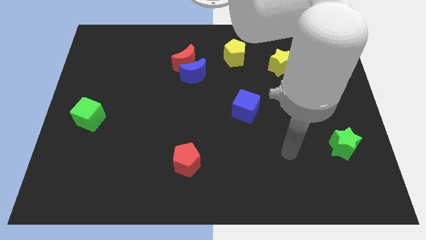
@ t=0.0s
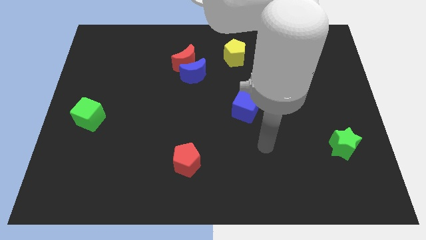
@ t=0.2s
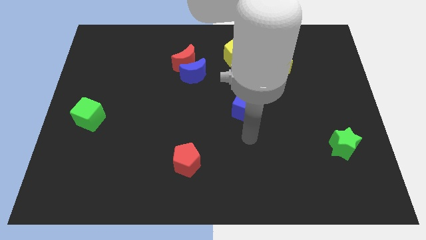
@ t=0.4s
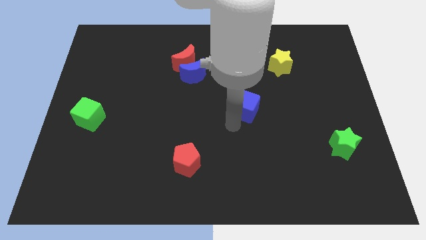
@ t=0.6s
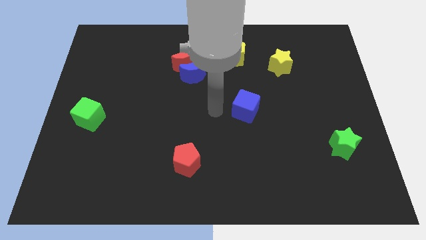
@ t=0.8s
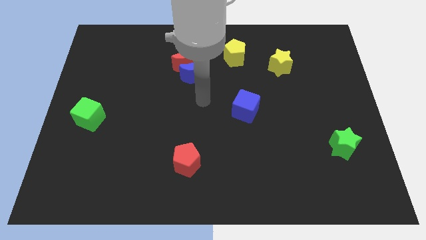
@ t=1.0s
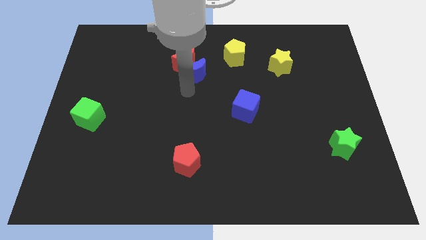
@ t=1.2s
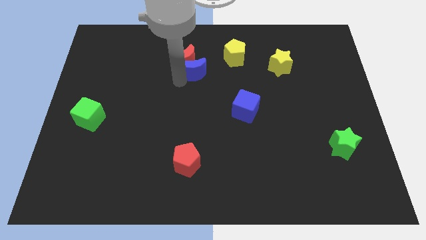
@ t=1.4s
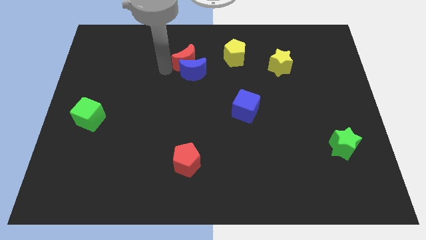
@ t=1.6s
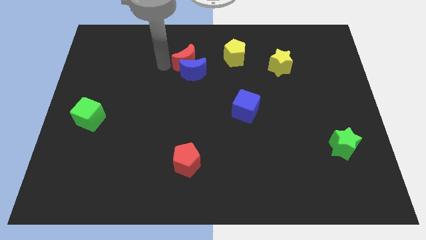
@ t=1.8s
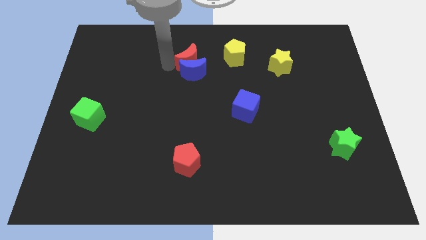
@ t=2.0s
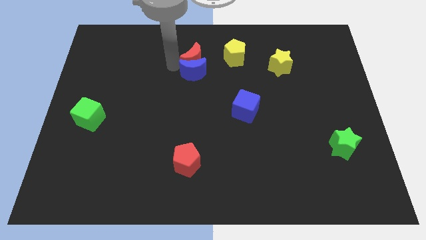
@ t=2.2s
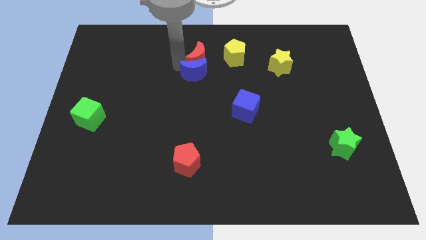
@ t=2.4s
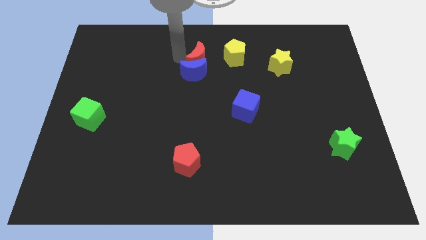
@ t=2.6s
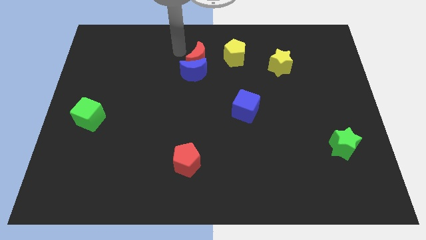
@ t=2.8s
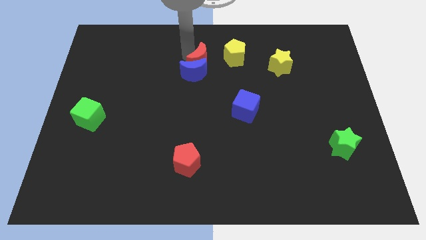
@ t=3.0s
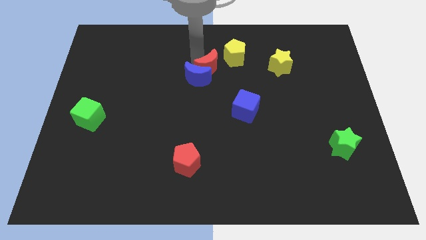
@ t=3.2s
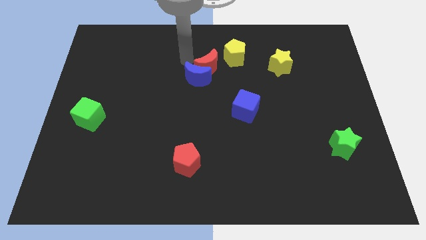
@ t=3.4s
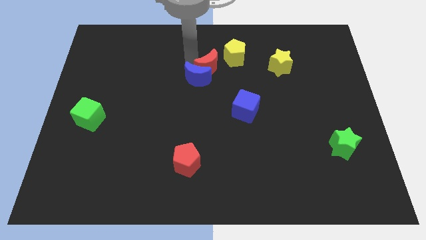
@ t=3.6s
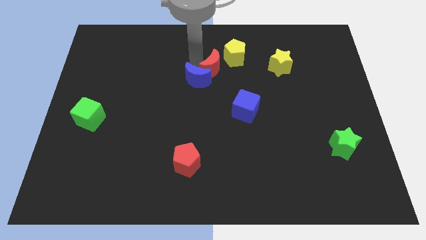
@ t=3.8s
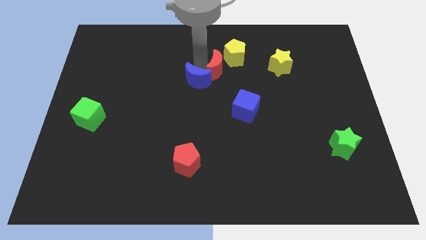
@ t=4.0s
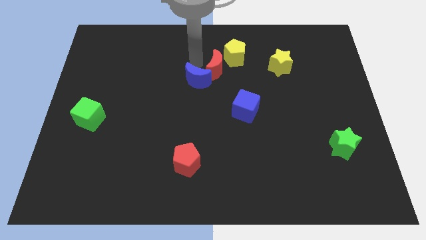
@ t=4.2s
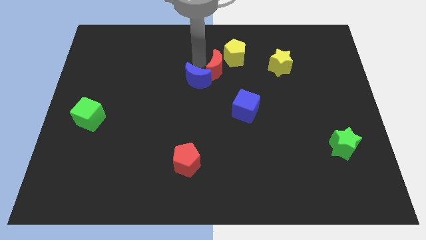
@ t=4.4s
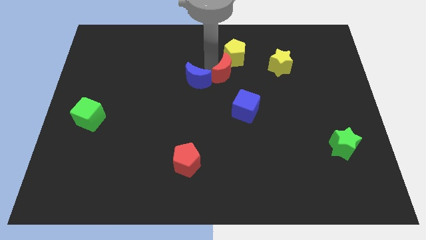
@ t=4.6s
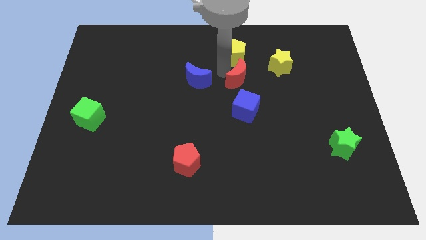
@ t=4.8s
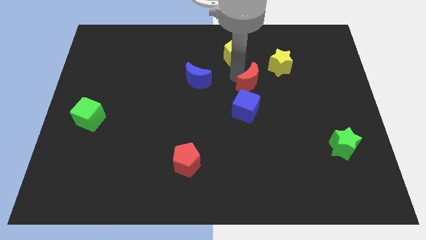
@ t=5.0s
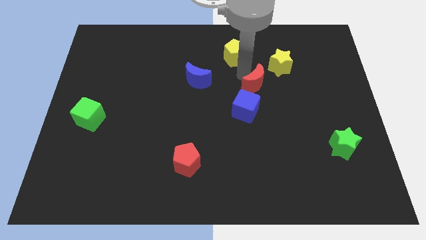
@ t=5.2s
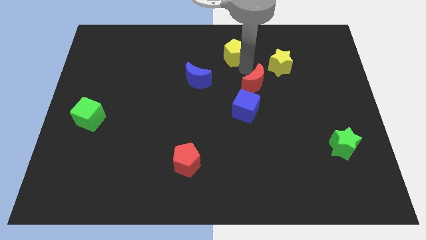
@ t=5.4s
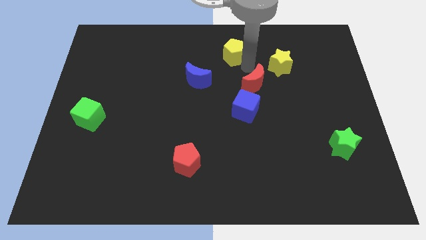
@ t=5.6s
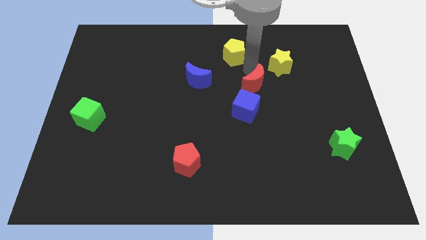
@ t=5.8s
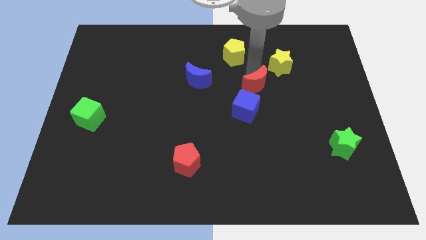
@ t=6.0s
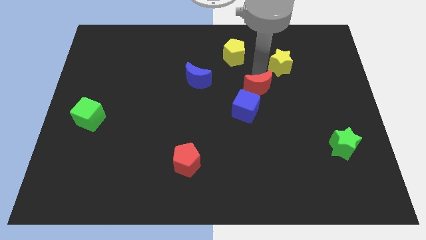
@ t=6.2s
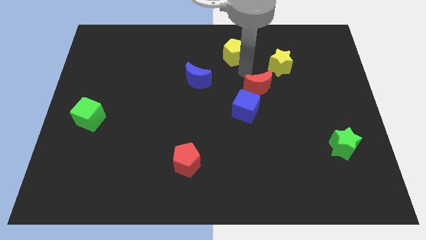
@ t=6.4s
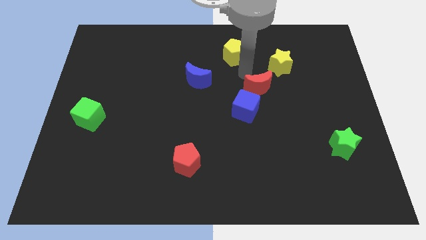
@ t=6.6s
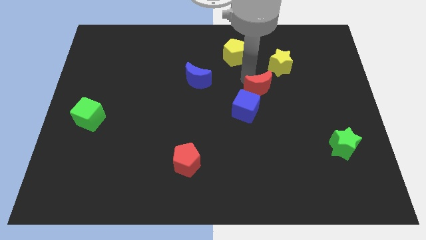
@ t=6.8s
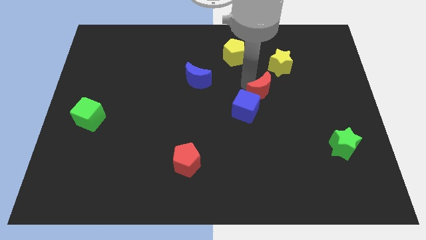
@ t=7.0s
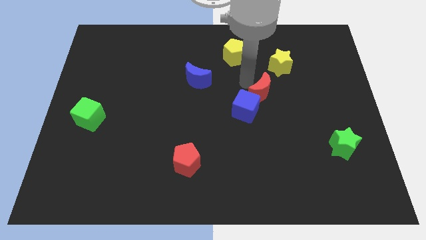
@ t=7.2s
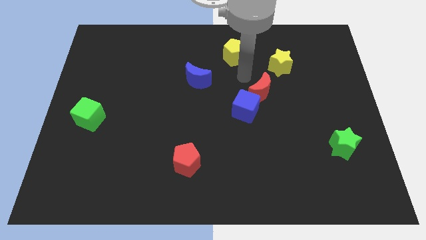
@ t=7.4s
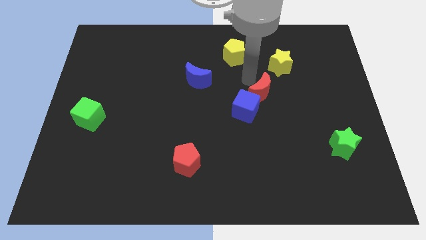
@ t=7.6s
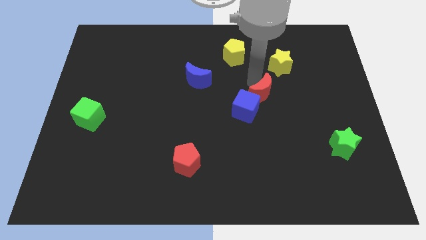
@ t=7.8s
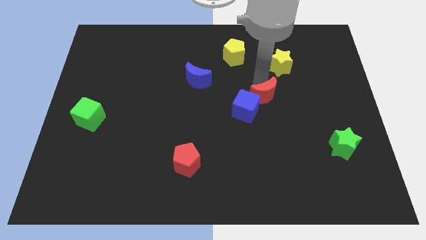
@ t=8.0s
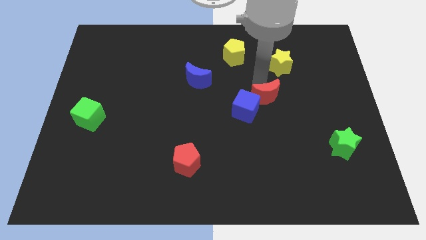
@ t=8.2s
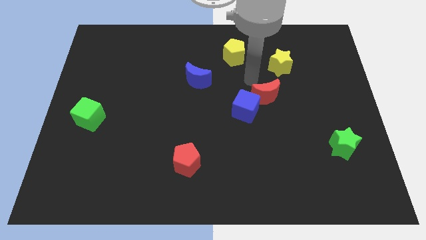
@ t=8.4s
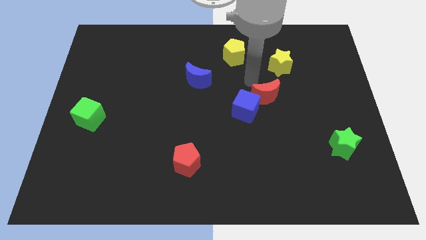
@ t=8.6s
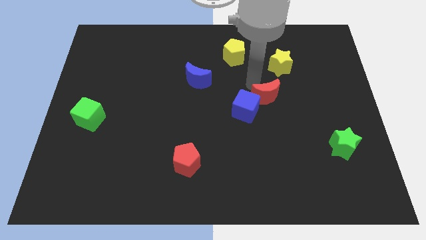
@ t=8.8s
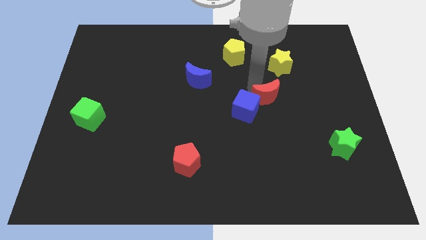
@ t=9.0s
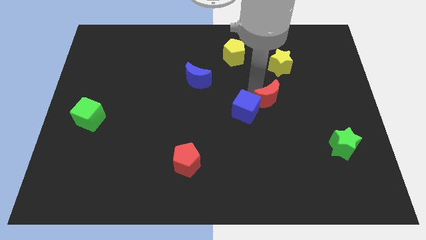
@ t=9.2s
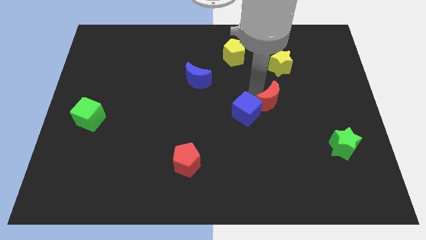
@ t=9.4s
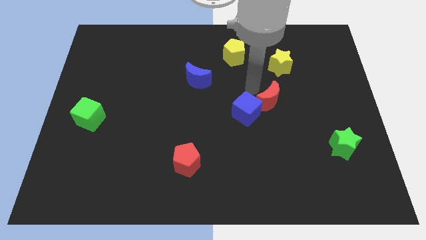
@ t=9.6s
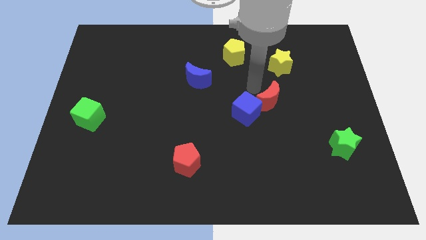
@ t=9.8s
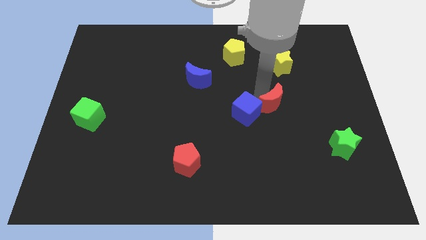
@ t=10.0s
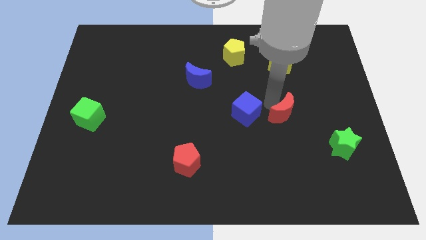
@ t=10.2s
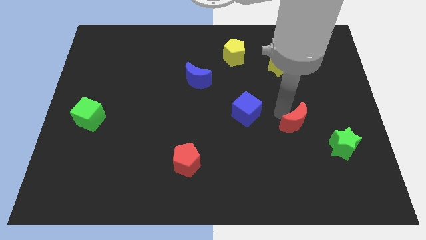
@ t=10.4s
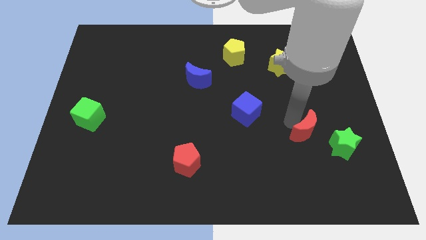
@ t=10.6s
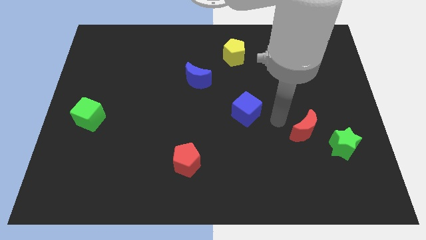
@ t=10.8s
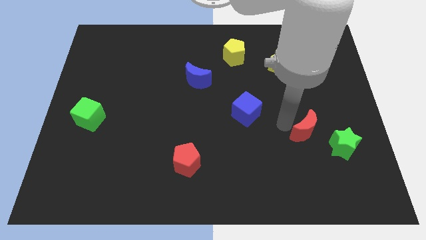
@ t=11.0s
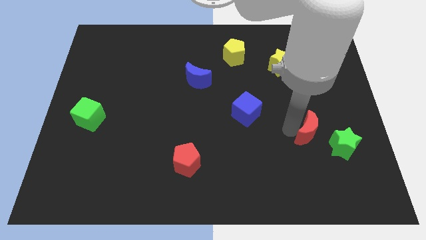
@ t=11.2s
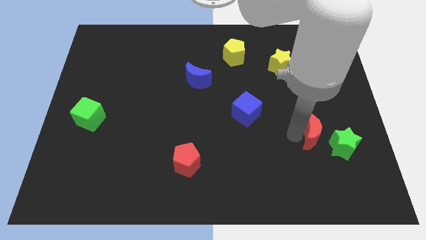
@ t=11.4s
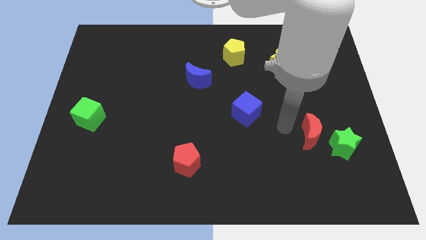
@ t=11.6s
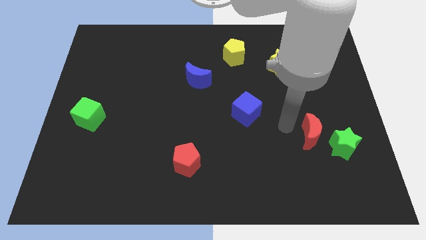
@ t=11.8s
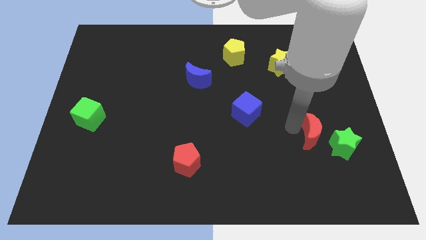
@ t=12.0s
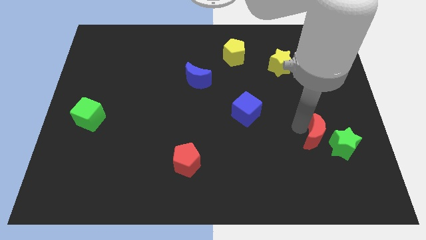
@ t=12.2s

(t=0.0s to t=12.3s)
slide the red moon to the green star
